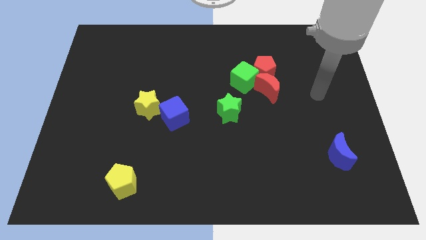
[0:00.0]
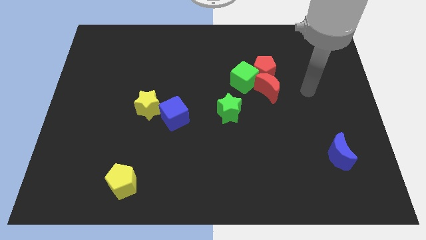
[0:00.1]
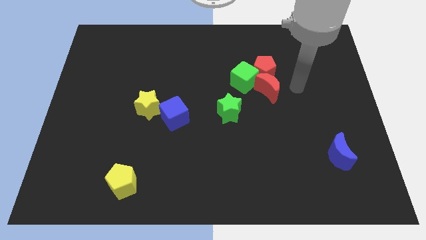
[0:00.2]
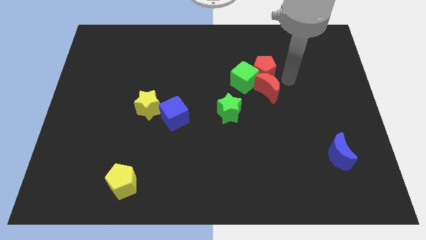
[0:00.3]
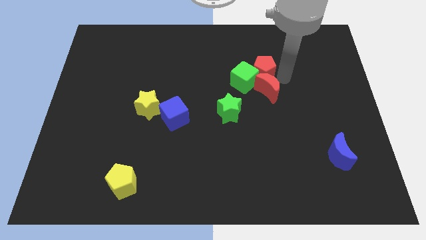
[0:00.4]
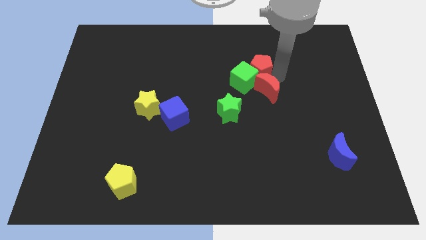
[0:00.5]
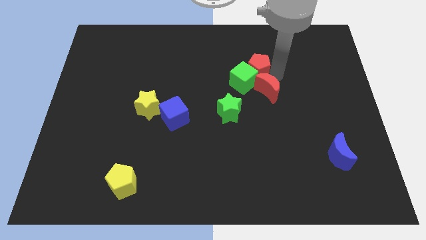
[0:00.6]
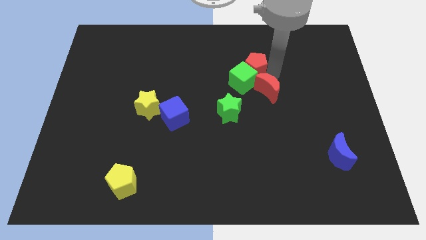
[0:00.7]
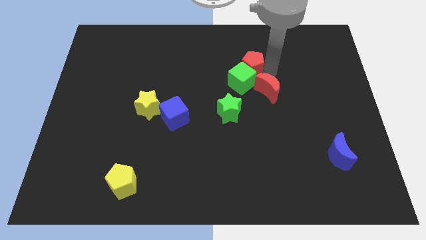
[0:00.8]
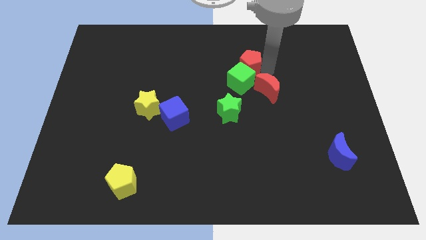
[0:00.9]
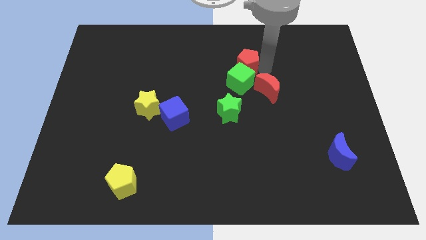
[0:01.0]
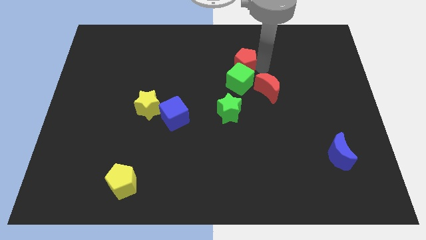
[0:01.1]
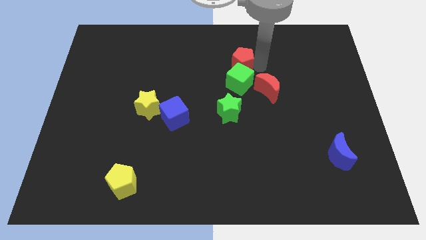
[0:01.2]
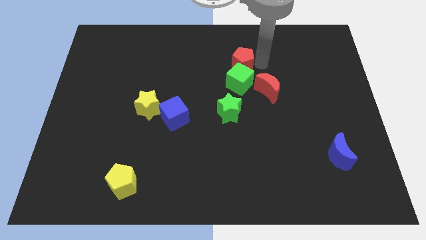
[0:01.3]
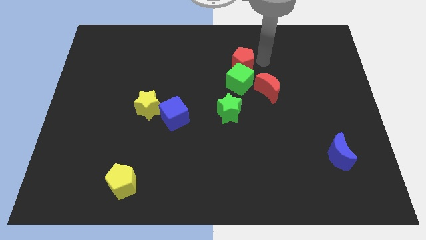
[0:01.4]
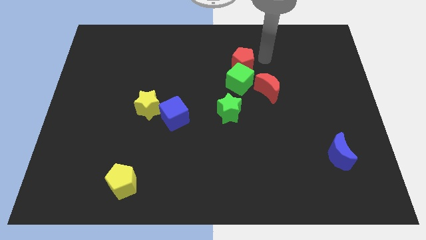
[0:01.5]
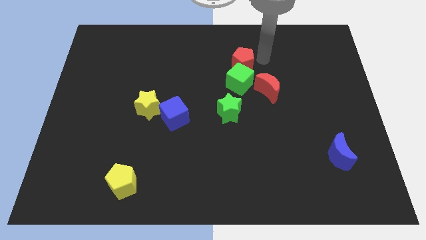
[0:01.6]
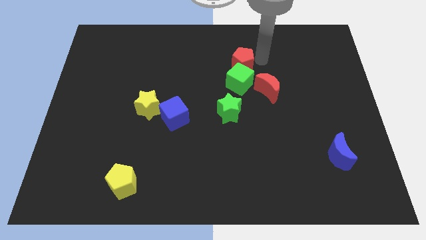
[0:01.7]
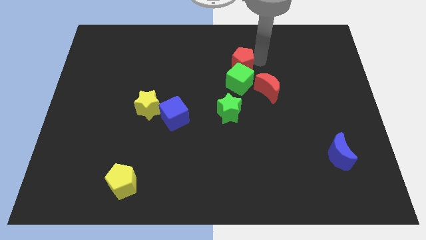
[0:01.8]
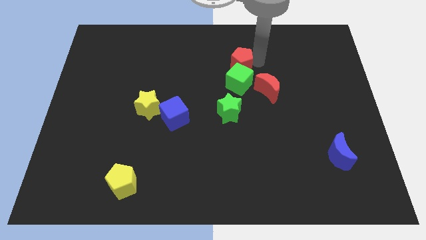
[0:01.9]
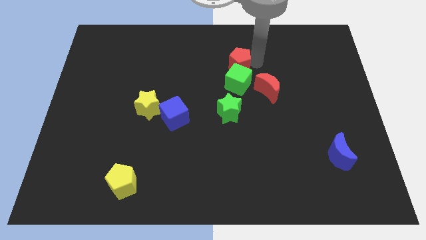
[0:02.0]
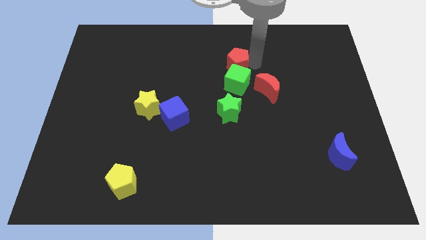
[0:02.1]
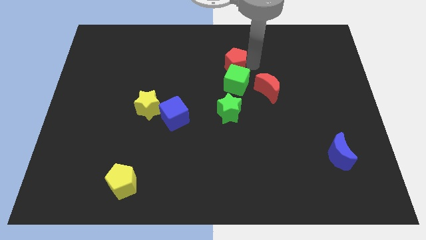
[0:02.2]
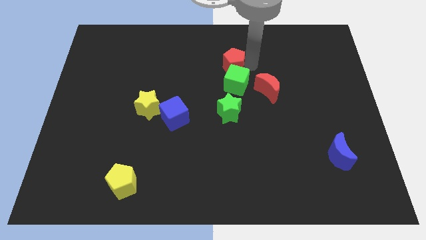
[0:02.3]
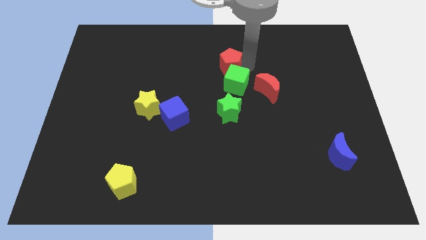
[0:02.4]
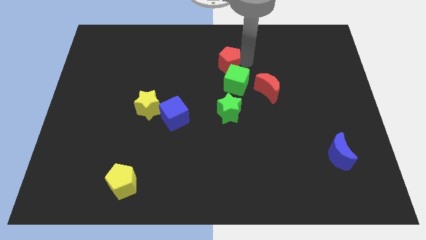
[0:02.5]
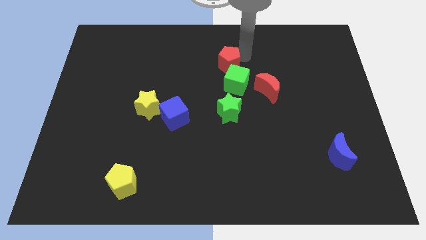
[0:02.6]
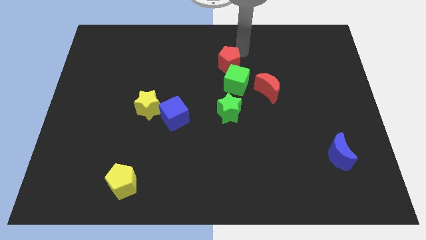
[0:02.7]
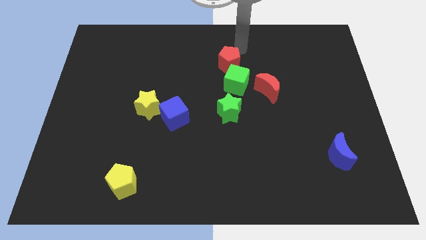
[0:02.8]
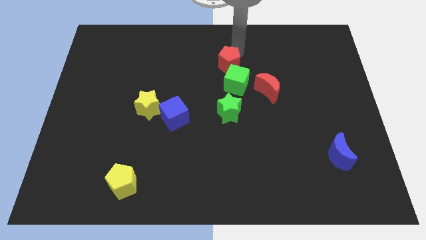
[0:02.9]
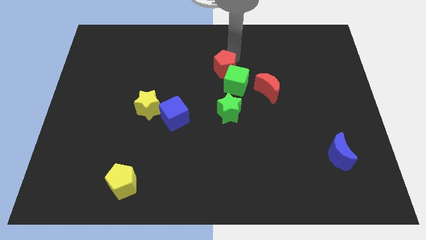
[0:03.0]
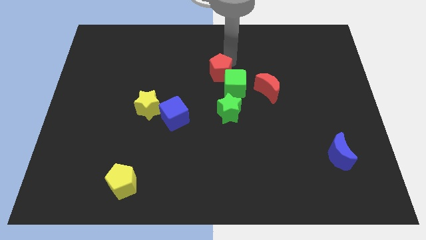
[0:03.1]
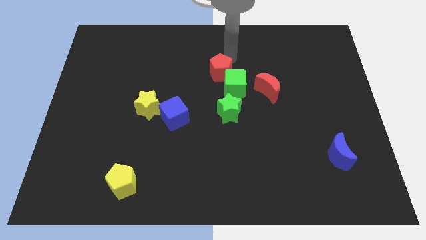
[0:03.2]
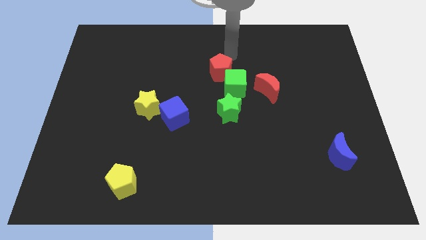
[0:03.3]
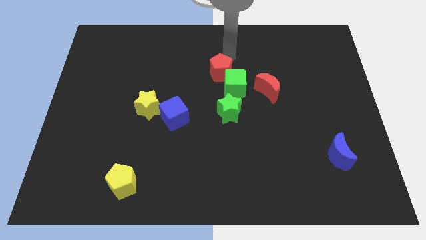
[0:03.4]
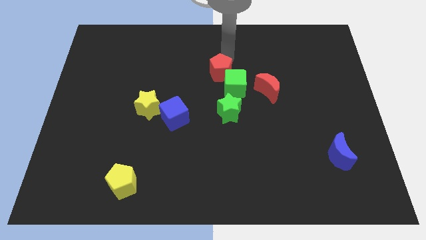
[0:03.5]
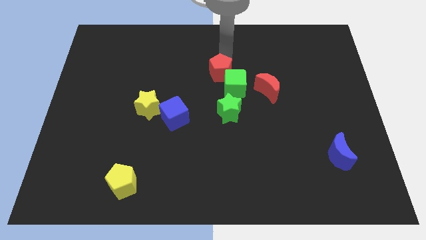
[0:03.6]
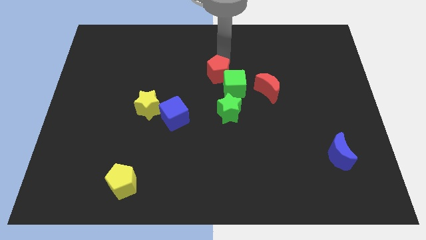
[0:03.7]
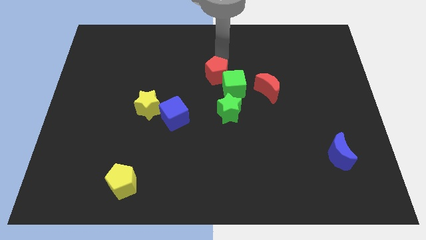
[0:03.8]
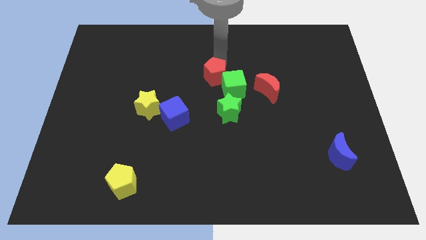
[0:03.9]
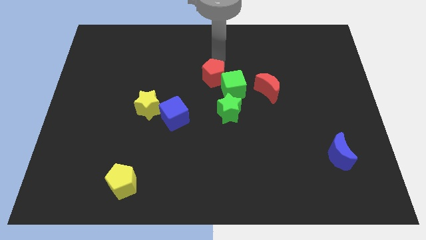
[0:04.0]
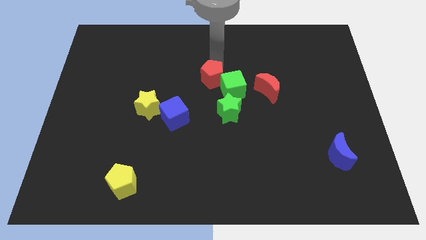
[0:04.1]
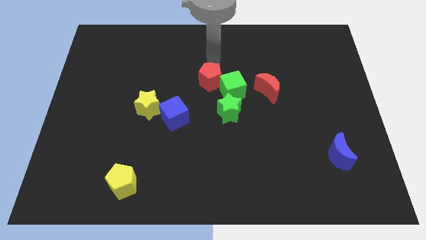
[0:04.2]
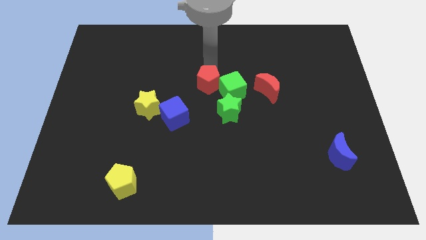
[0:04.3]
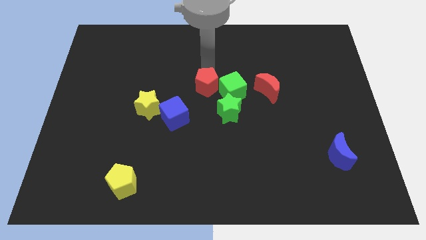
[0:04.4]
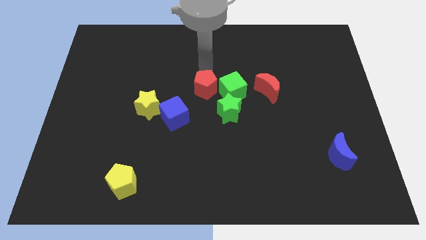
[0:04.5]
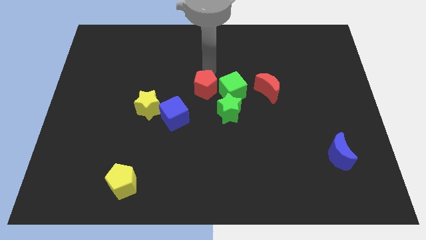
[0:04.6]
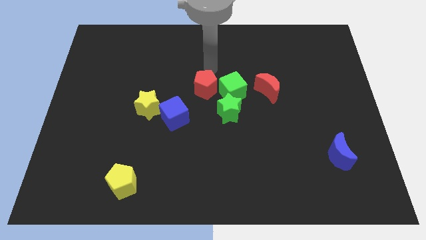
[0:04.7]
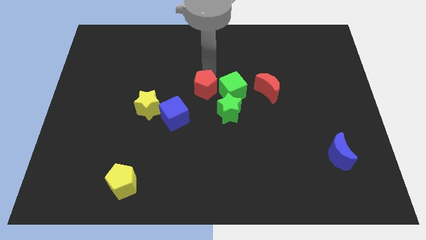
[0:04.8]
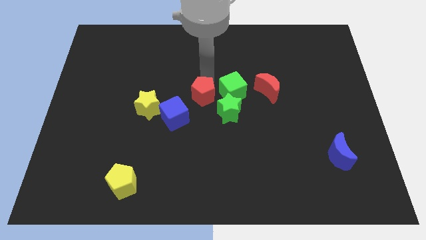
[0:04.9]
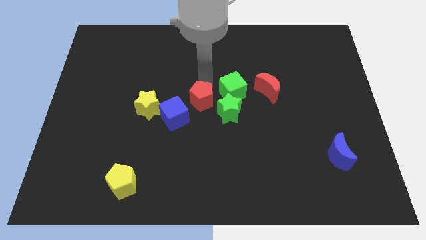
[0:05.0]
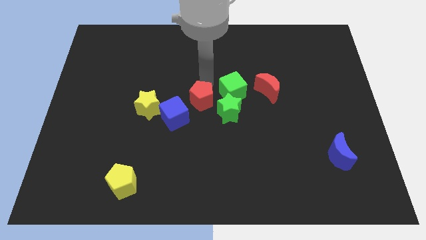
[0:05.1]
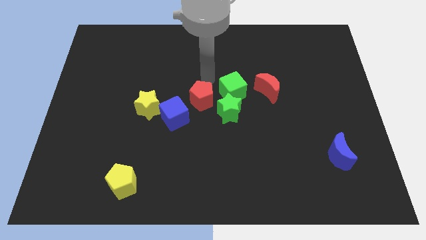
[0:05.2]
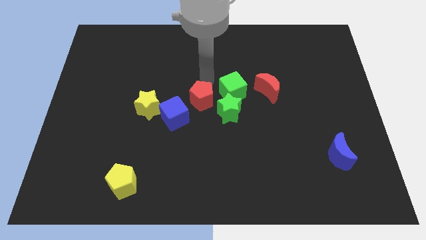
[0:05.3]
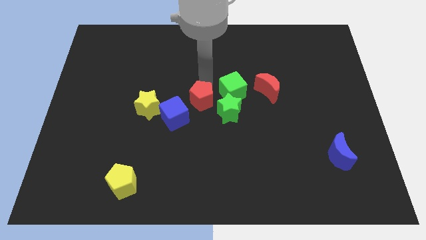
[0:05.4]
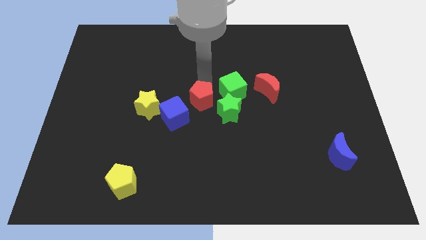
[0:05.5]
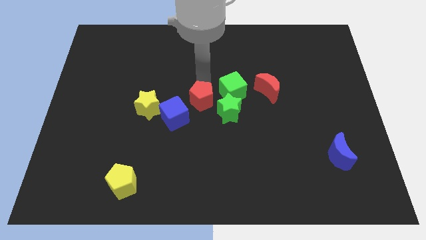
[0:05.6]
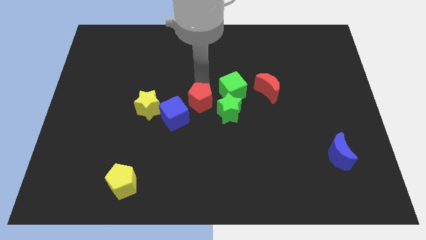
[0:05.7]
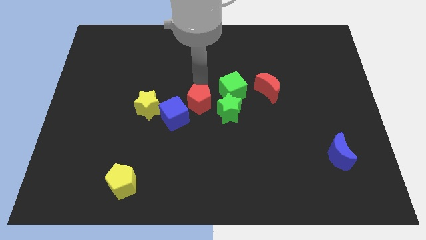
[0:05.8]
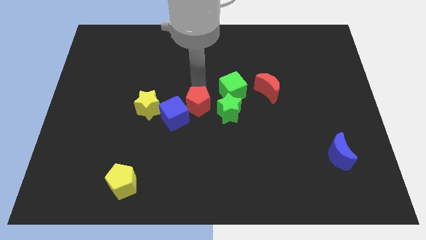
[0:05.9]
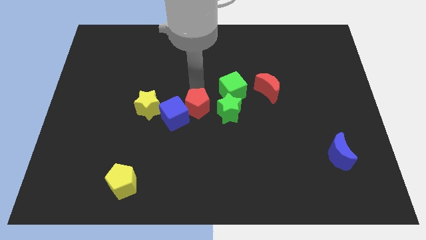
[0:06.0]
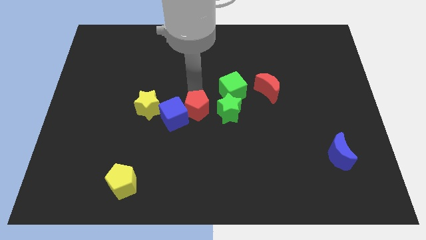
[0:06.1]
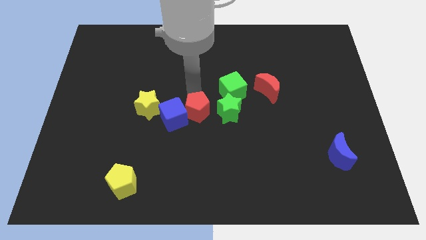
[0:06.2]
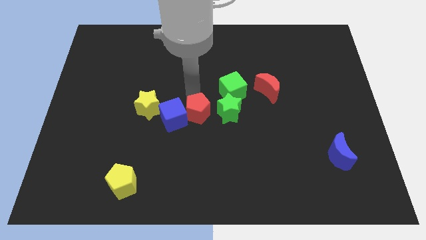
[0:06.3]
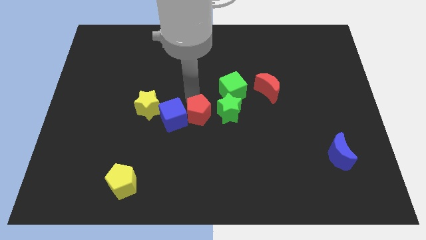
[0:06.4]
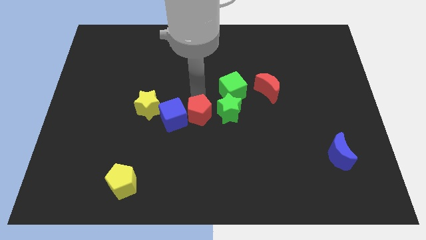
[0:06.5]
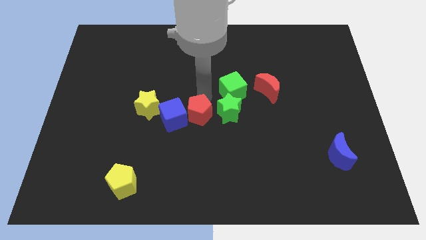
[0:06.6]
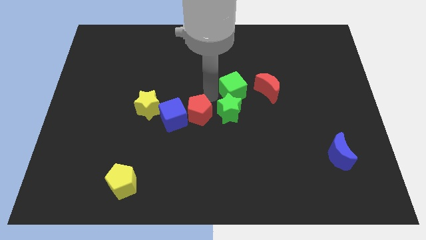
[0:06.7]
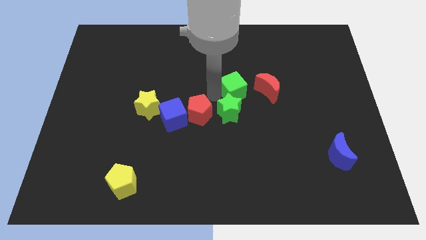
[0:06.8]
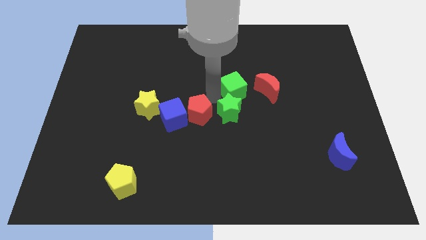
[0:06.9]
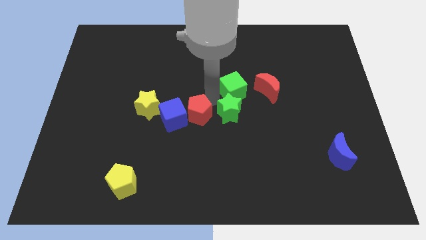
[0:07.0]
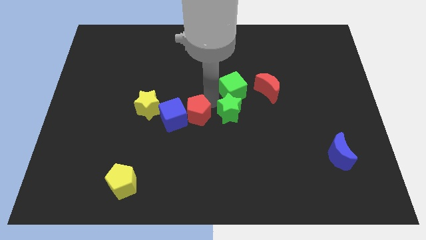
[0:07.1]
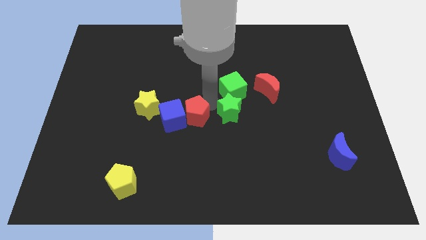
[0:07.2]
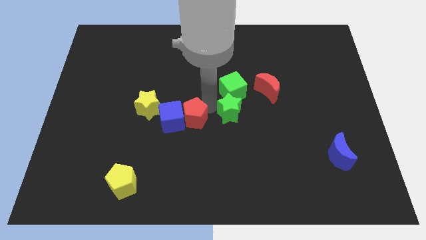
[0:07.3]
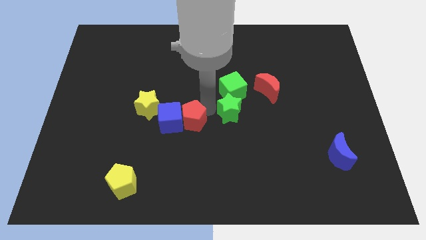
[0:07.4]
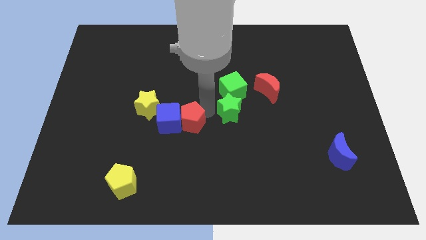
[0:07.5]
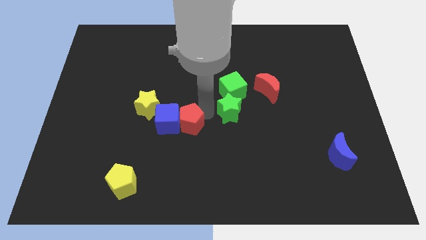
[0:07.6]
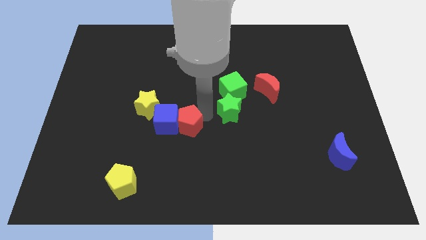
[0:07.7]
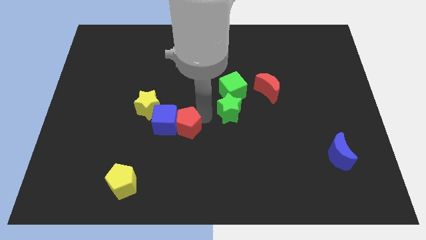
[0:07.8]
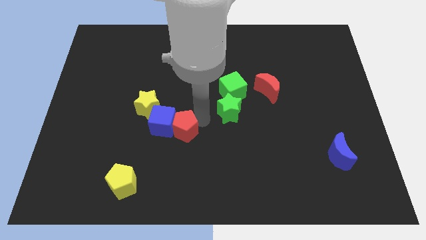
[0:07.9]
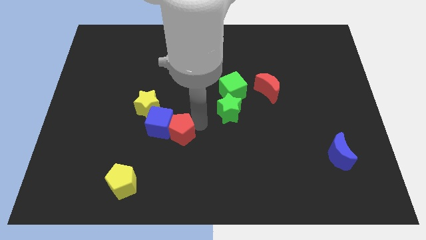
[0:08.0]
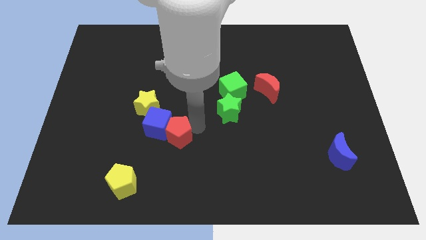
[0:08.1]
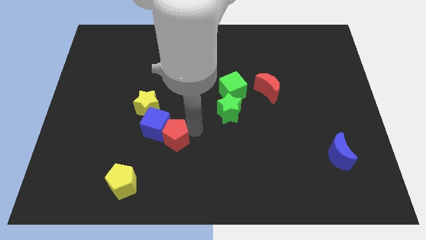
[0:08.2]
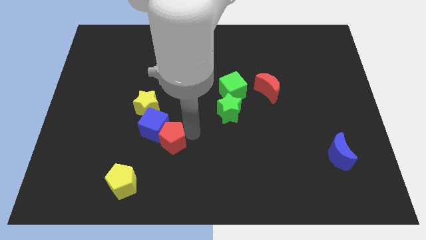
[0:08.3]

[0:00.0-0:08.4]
push the red pentagon below the blue cube
